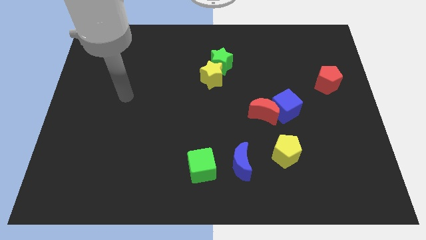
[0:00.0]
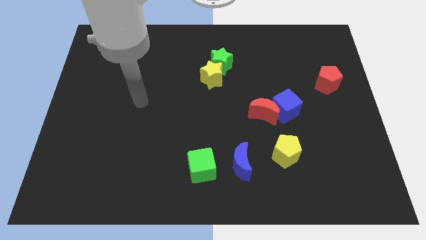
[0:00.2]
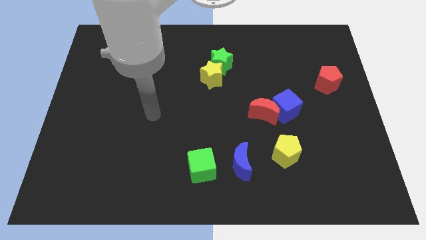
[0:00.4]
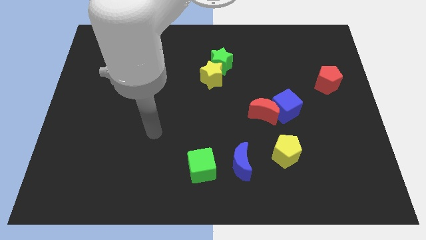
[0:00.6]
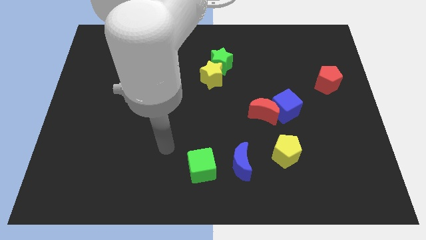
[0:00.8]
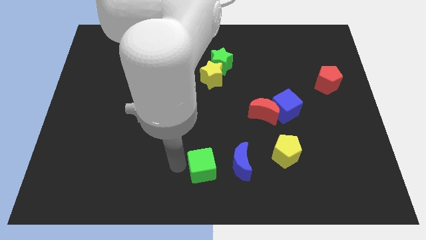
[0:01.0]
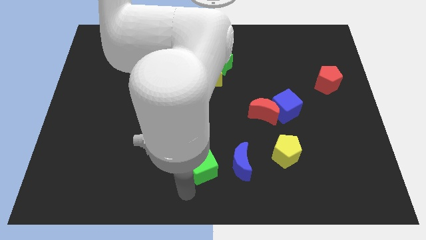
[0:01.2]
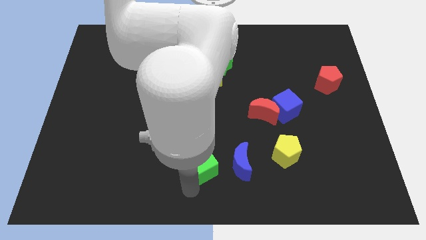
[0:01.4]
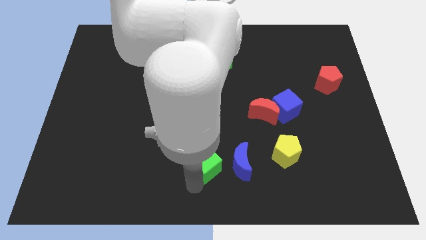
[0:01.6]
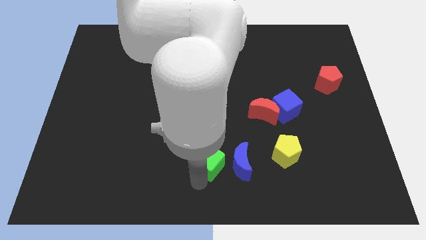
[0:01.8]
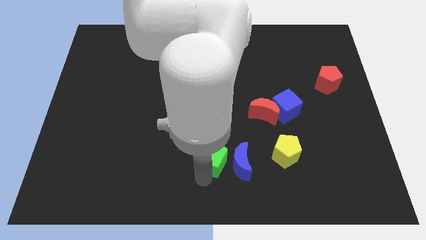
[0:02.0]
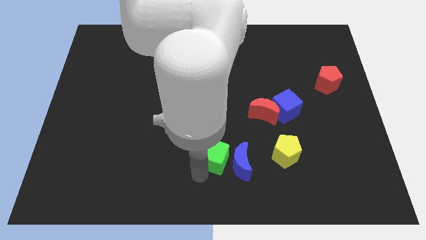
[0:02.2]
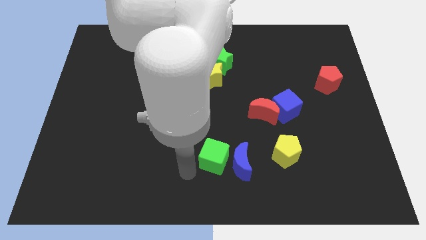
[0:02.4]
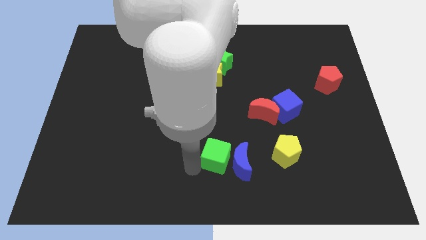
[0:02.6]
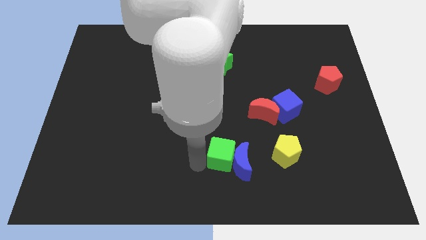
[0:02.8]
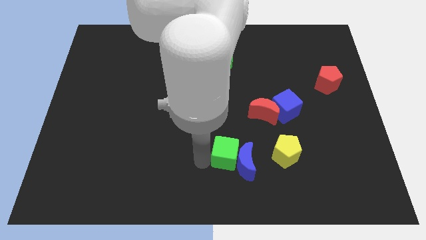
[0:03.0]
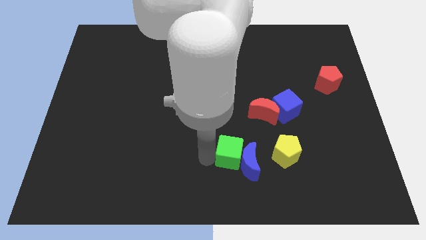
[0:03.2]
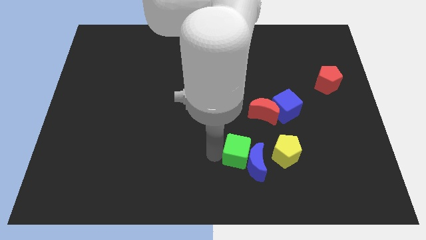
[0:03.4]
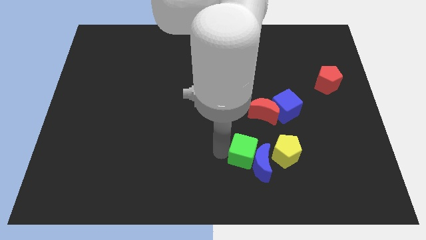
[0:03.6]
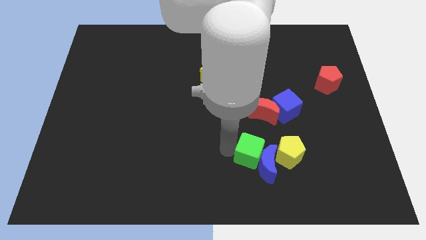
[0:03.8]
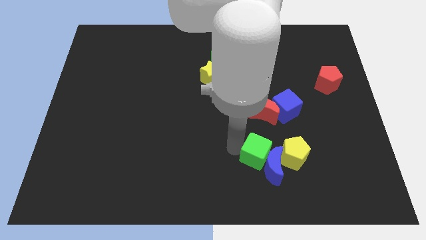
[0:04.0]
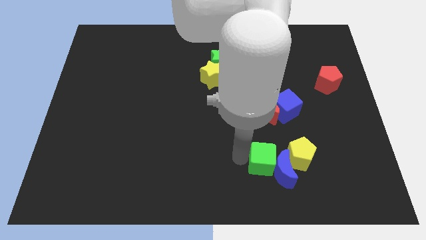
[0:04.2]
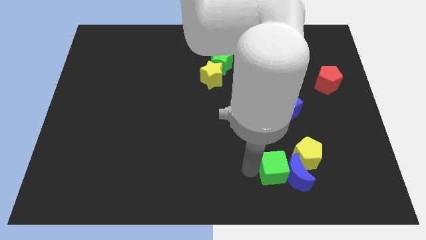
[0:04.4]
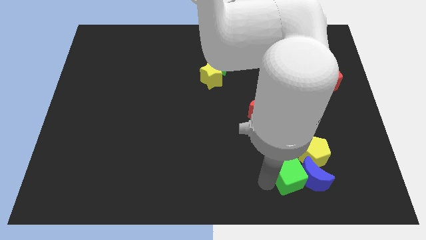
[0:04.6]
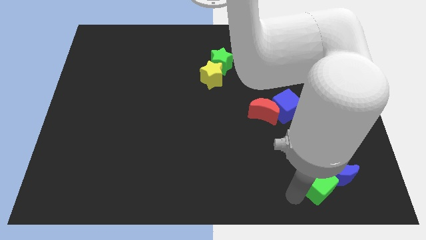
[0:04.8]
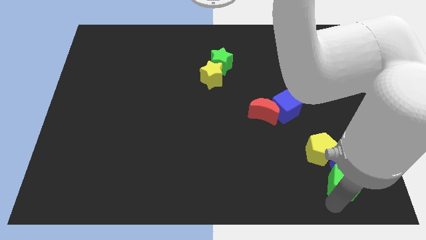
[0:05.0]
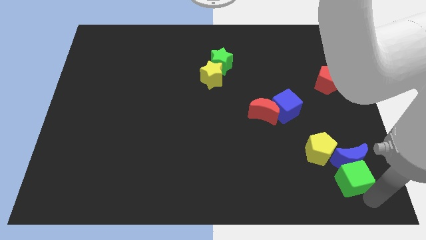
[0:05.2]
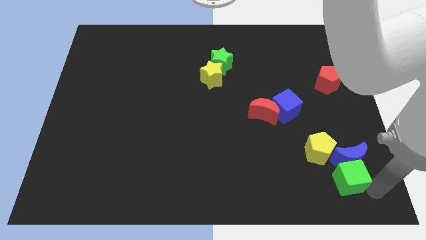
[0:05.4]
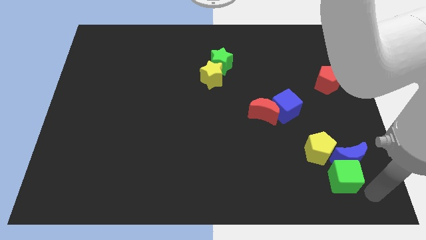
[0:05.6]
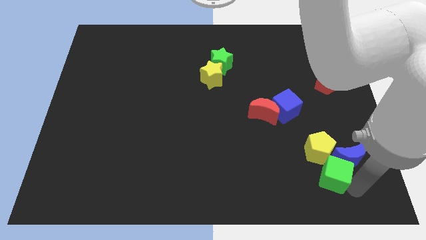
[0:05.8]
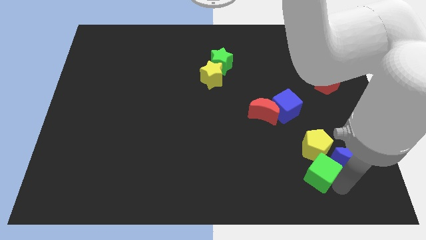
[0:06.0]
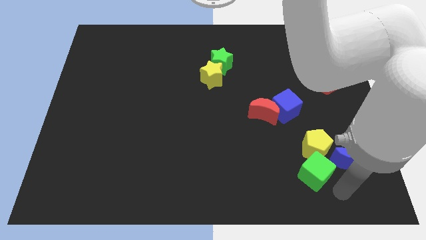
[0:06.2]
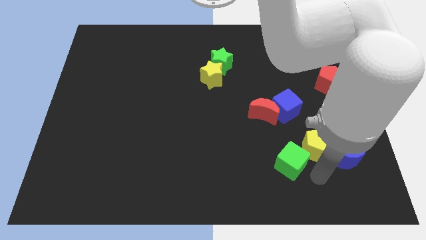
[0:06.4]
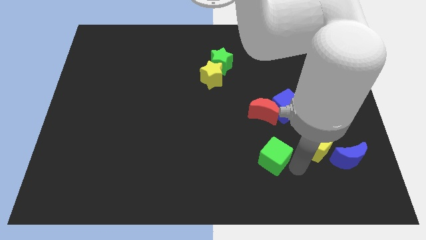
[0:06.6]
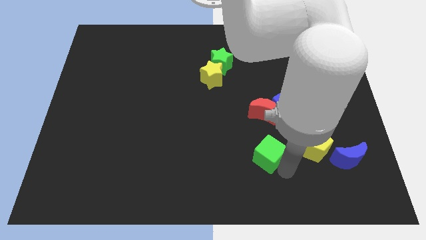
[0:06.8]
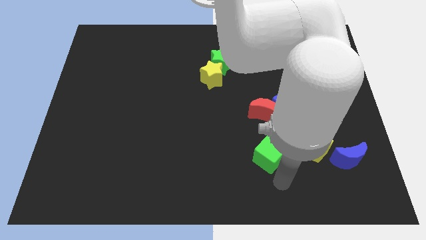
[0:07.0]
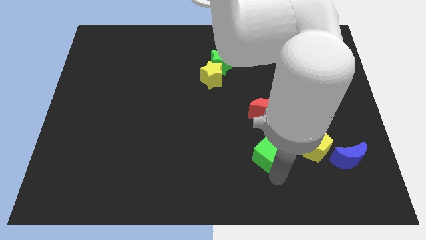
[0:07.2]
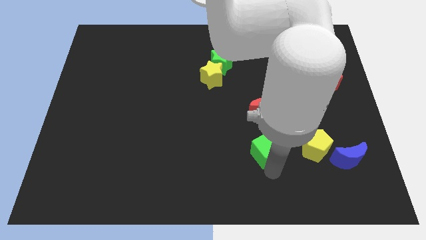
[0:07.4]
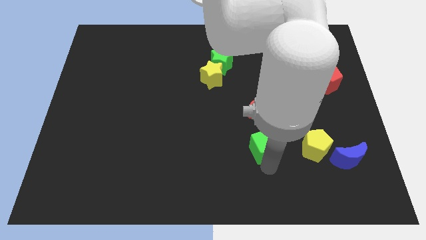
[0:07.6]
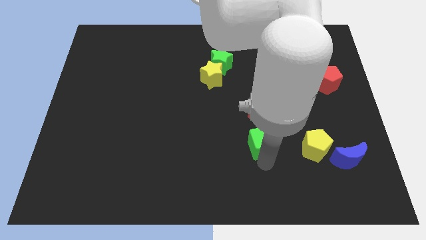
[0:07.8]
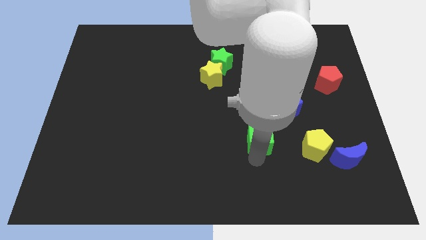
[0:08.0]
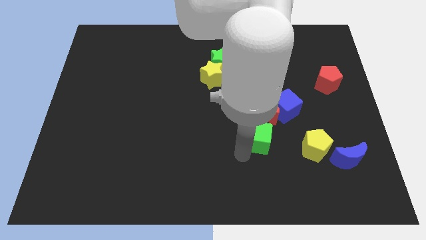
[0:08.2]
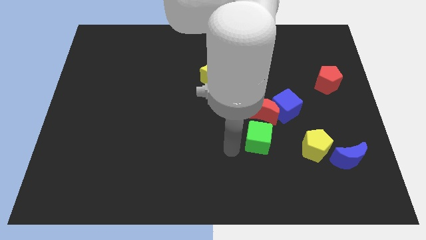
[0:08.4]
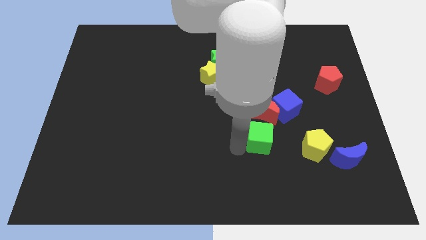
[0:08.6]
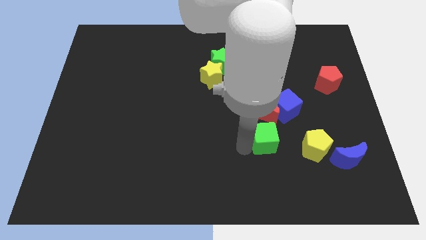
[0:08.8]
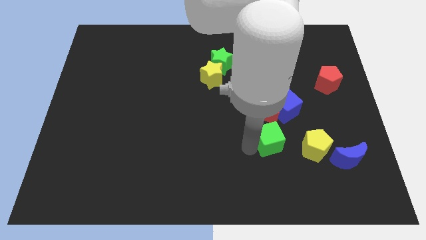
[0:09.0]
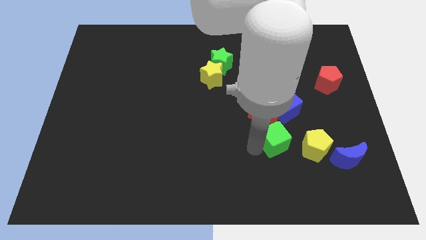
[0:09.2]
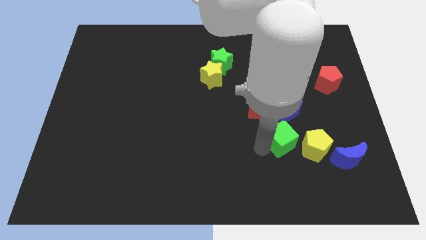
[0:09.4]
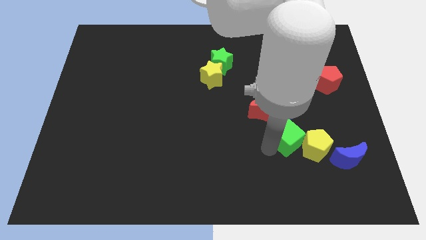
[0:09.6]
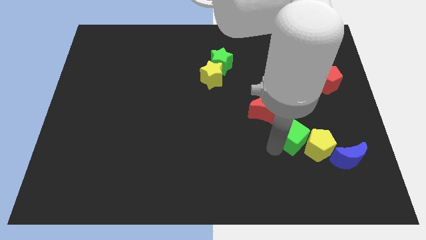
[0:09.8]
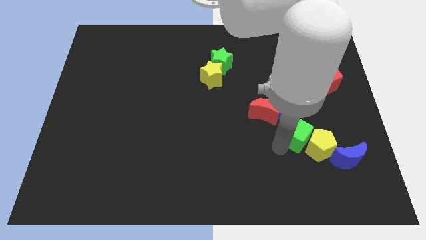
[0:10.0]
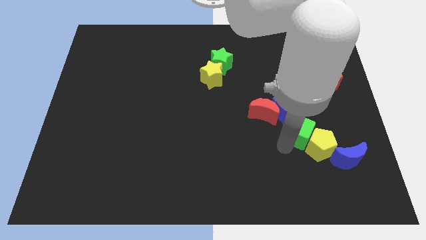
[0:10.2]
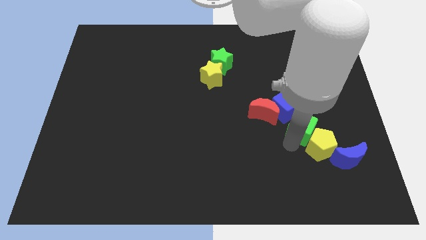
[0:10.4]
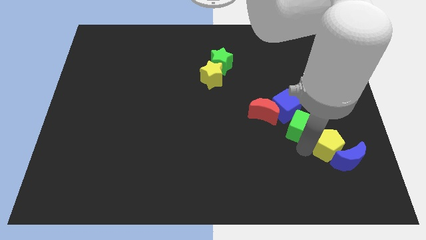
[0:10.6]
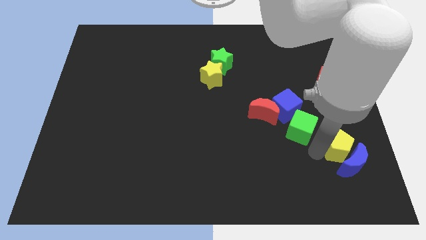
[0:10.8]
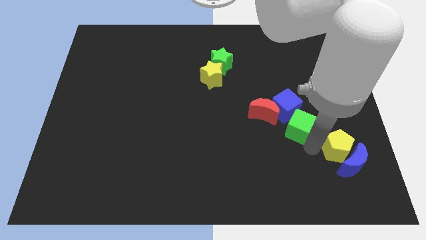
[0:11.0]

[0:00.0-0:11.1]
push the green cube towards the blue cube

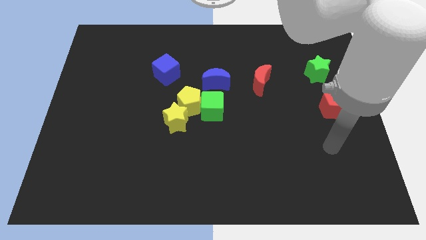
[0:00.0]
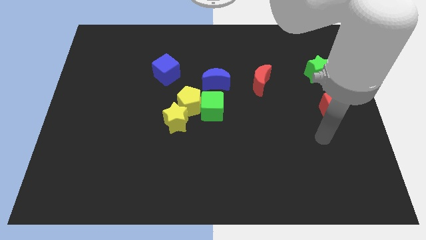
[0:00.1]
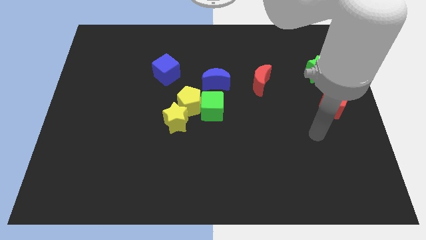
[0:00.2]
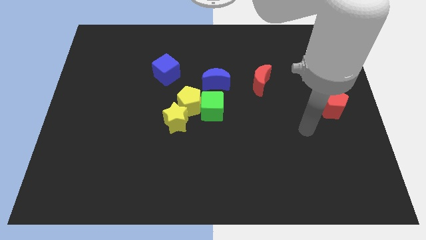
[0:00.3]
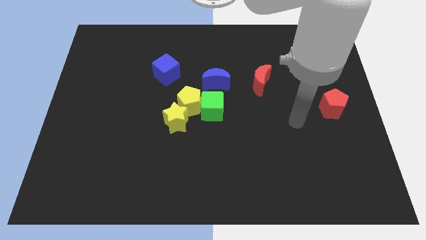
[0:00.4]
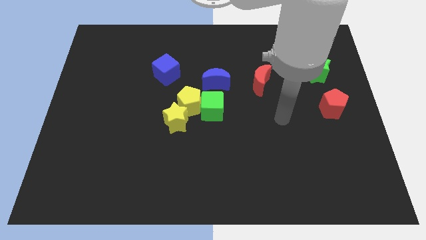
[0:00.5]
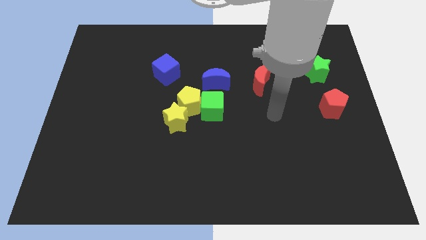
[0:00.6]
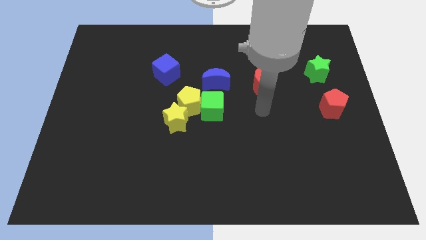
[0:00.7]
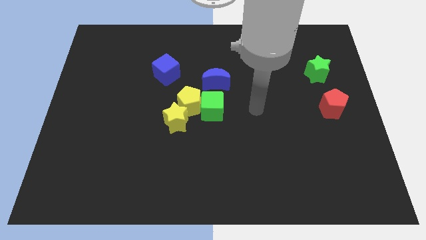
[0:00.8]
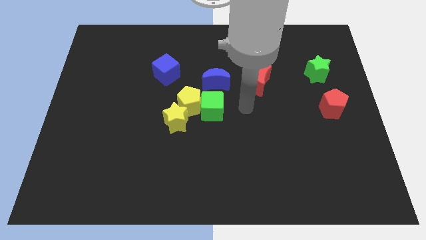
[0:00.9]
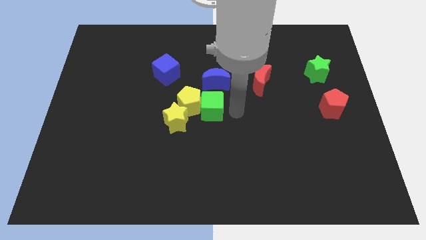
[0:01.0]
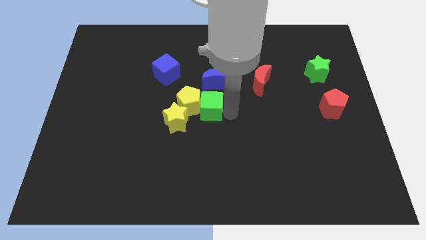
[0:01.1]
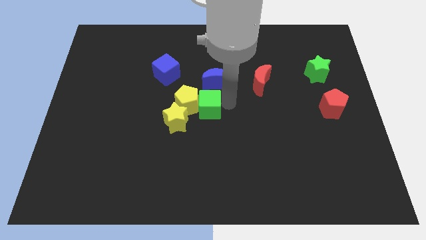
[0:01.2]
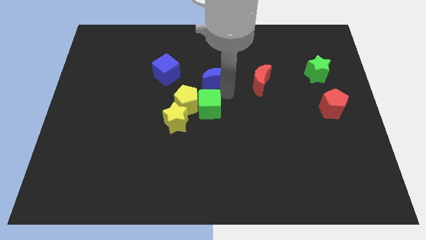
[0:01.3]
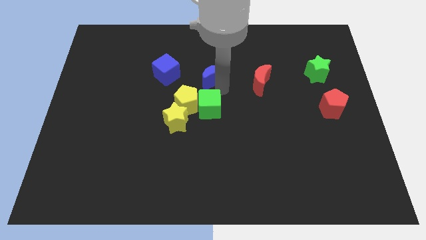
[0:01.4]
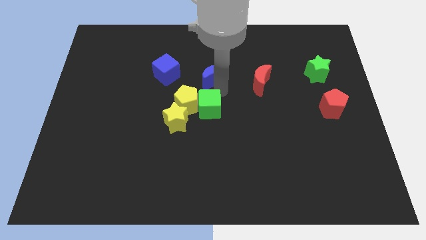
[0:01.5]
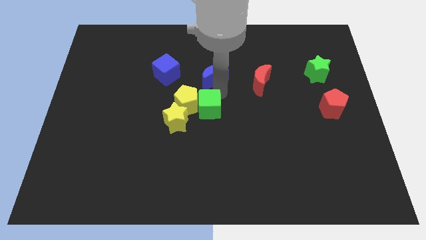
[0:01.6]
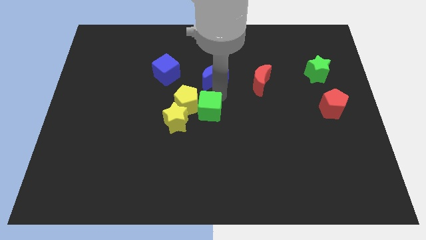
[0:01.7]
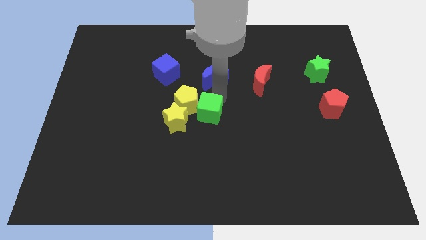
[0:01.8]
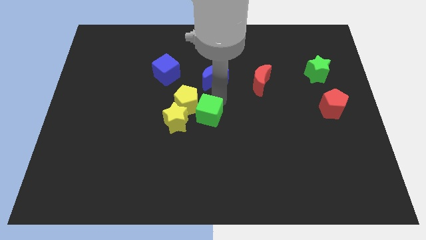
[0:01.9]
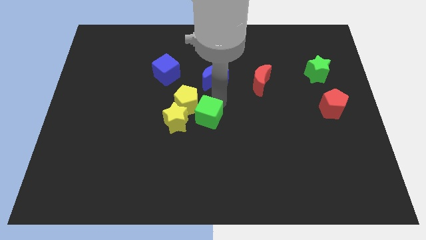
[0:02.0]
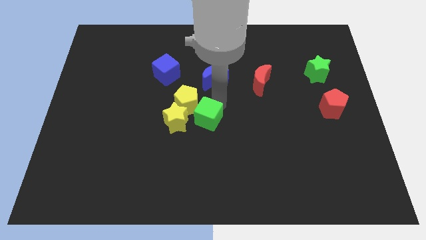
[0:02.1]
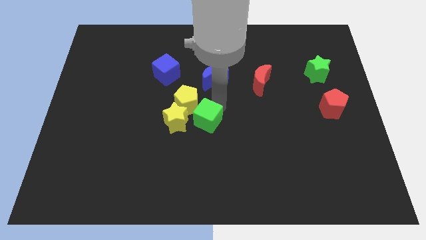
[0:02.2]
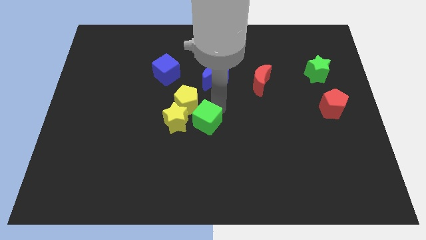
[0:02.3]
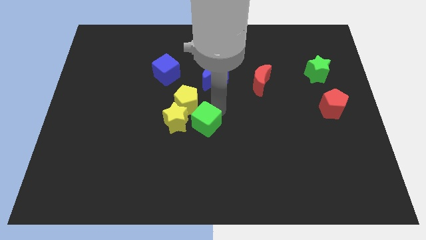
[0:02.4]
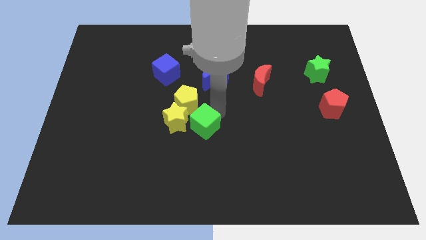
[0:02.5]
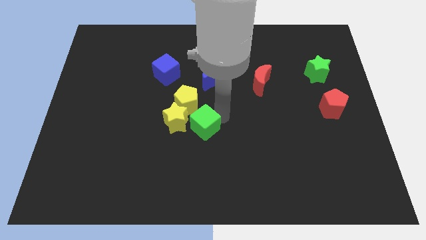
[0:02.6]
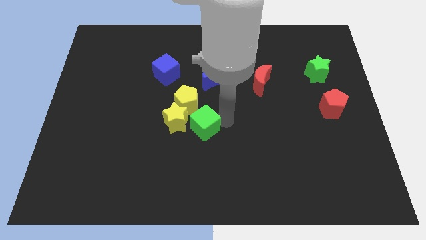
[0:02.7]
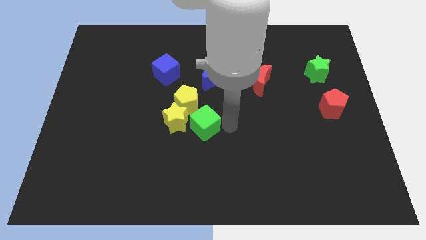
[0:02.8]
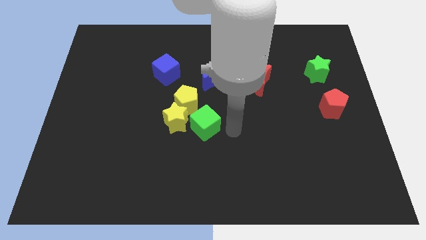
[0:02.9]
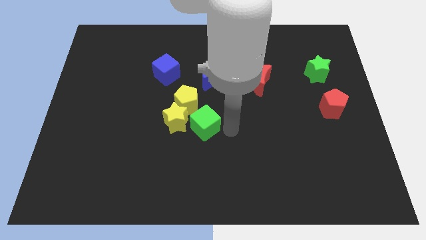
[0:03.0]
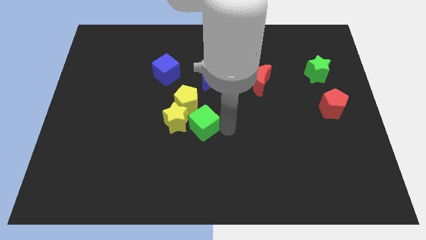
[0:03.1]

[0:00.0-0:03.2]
move the green cube next to the yellow star
